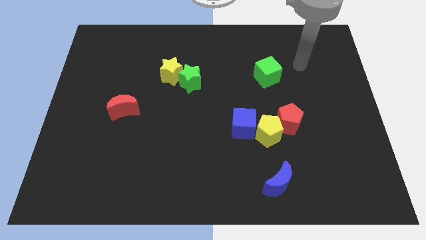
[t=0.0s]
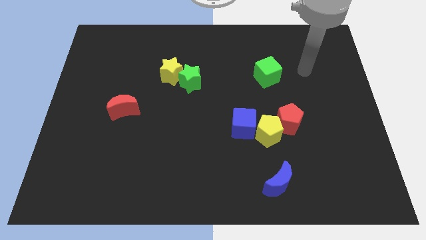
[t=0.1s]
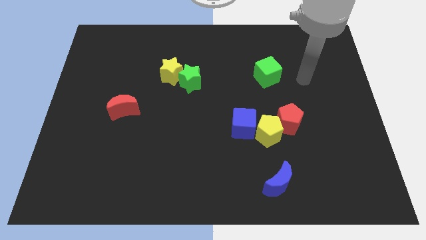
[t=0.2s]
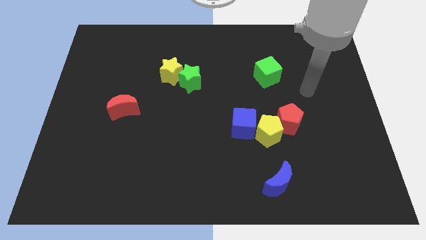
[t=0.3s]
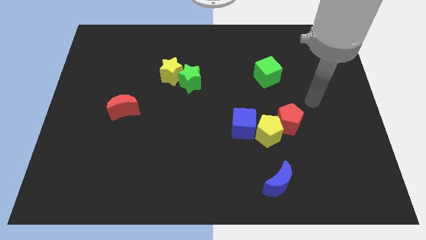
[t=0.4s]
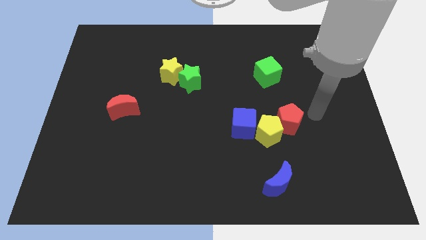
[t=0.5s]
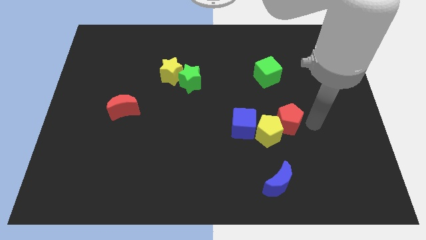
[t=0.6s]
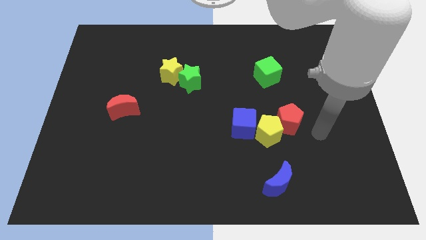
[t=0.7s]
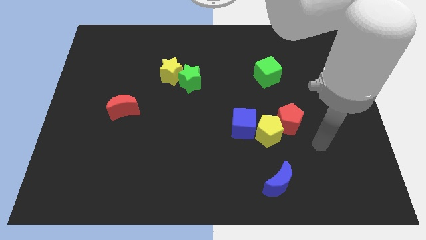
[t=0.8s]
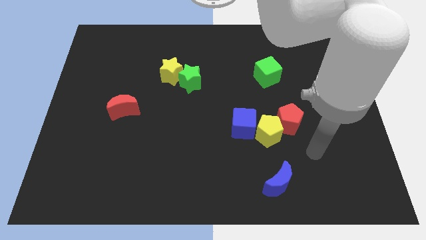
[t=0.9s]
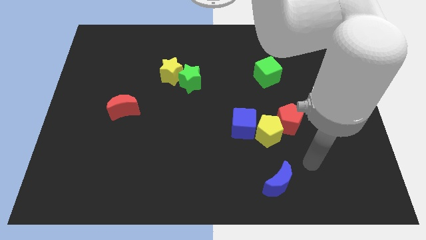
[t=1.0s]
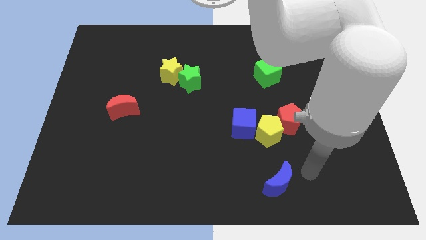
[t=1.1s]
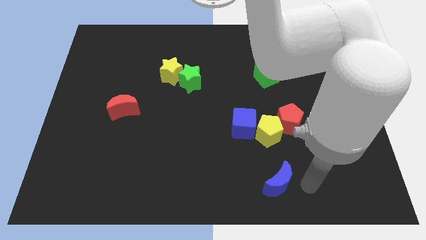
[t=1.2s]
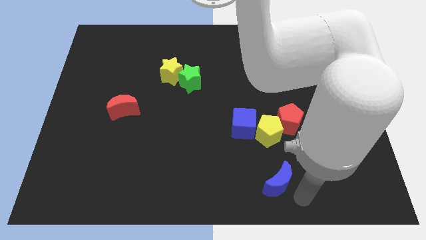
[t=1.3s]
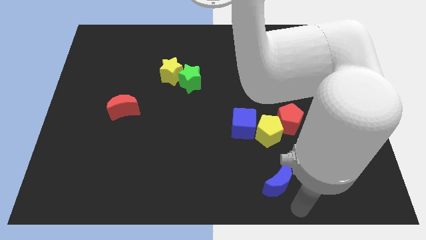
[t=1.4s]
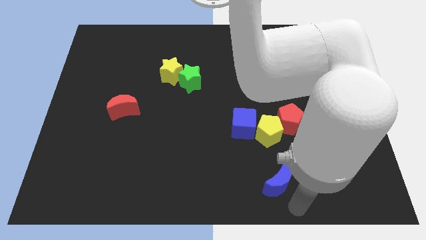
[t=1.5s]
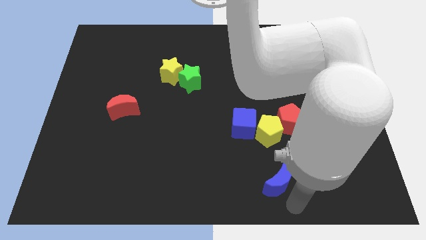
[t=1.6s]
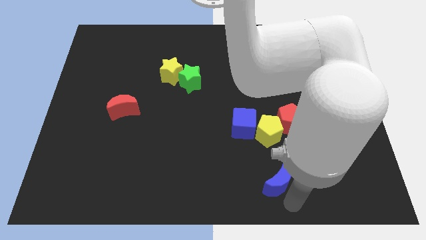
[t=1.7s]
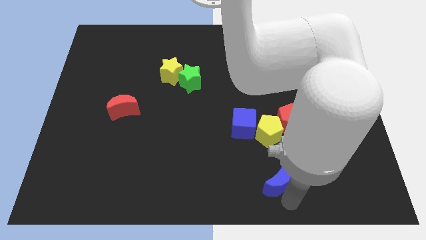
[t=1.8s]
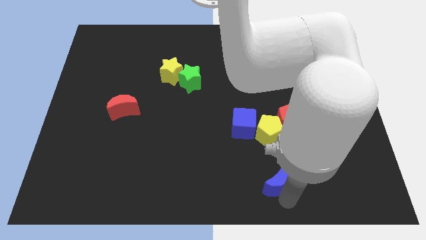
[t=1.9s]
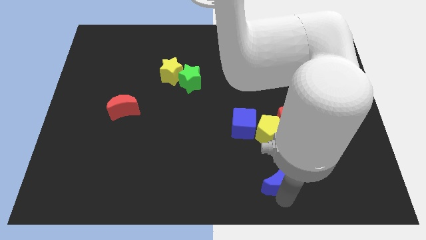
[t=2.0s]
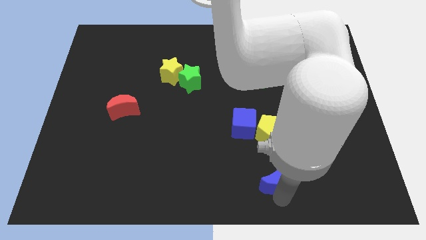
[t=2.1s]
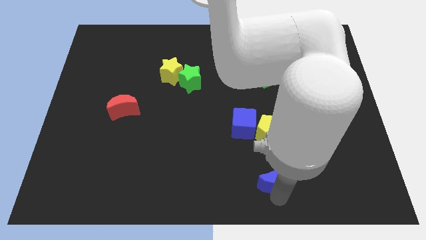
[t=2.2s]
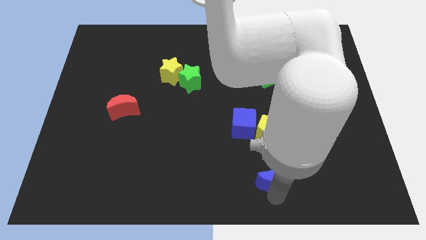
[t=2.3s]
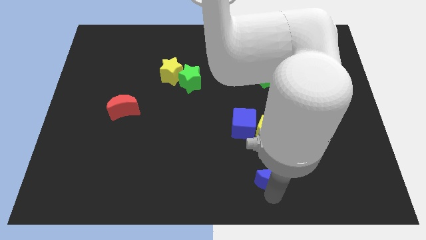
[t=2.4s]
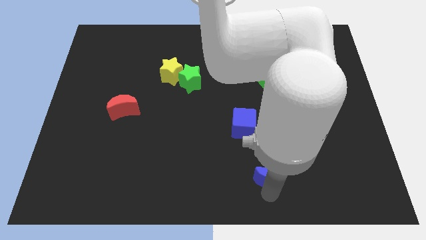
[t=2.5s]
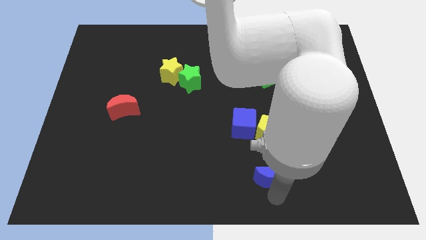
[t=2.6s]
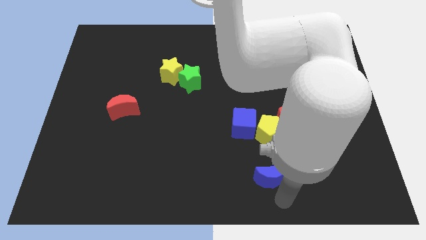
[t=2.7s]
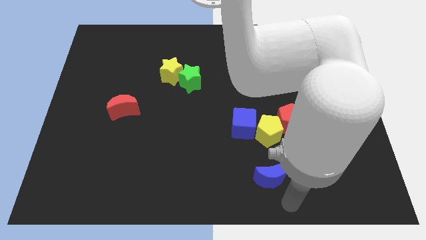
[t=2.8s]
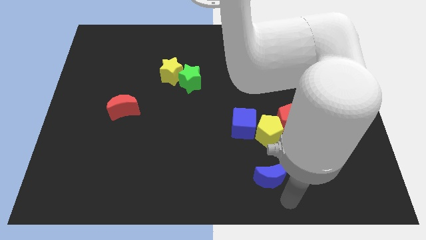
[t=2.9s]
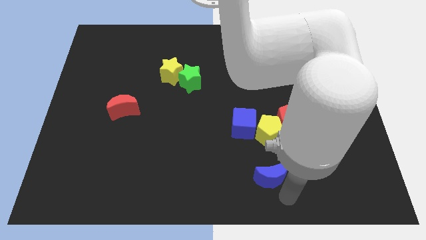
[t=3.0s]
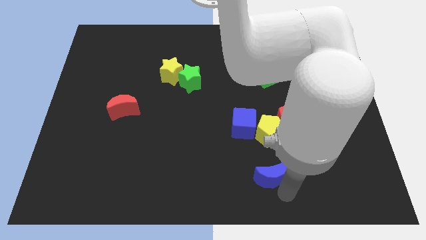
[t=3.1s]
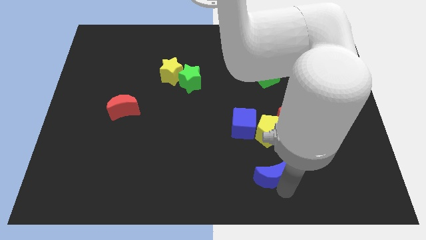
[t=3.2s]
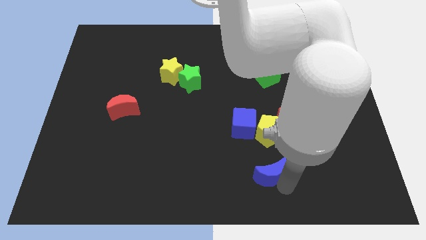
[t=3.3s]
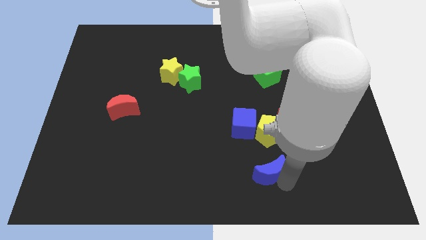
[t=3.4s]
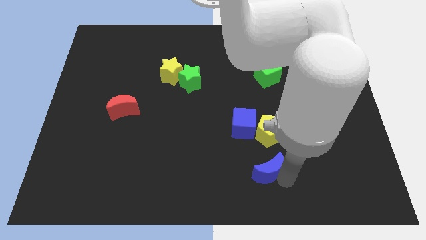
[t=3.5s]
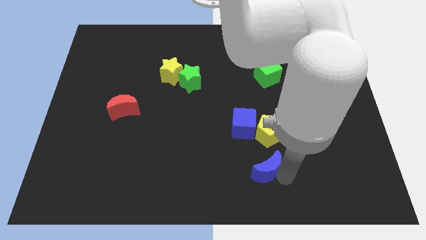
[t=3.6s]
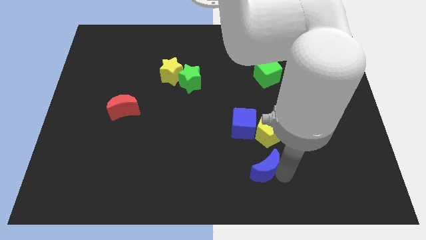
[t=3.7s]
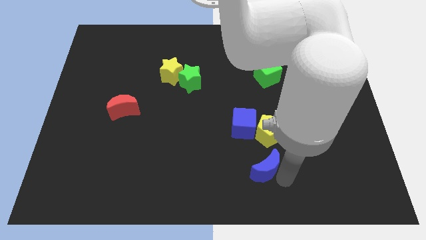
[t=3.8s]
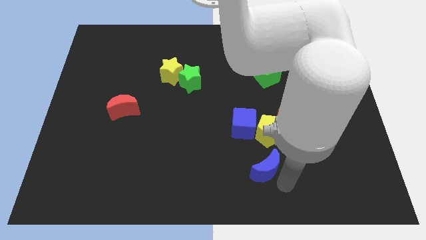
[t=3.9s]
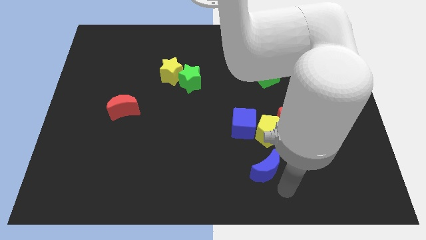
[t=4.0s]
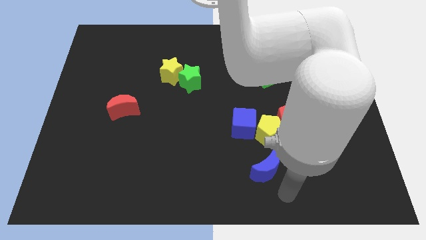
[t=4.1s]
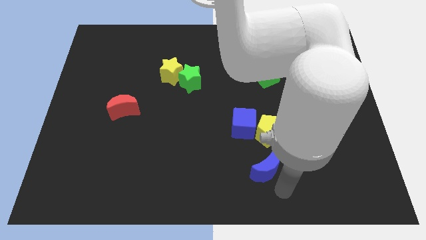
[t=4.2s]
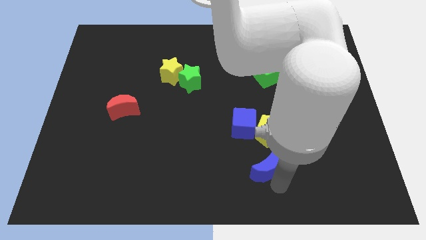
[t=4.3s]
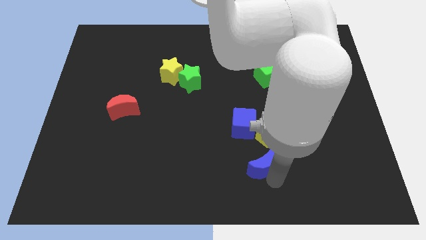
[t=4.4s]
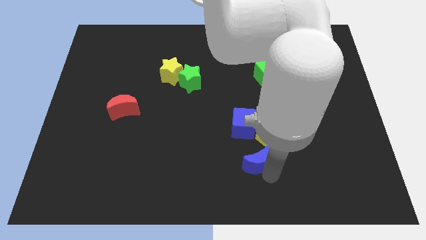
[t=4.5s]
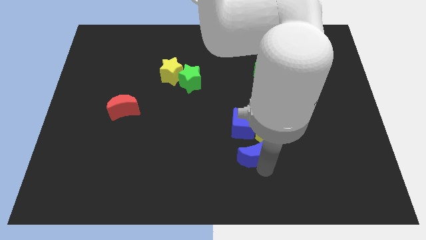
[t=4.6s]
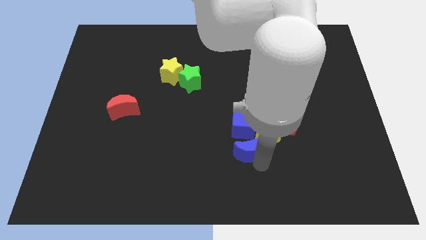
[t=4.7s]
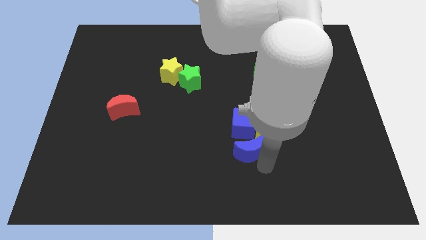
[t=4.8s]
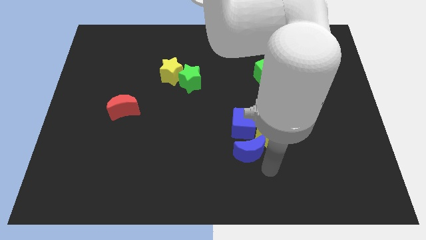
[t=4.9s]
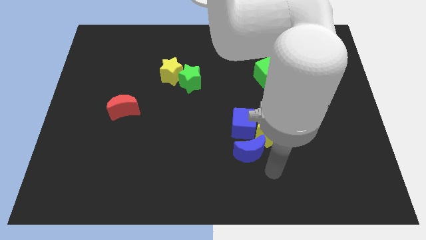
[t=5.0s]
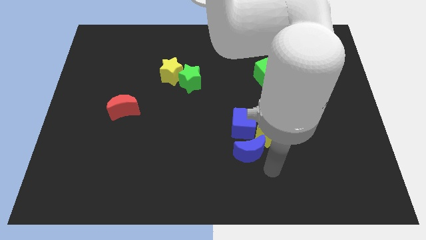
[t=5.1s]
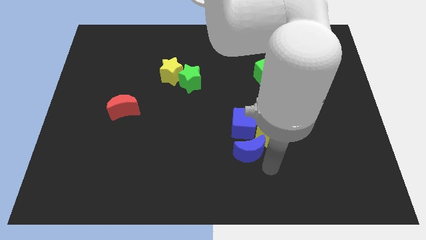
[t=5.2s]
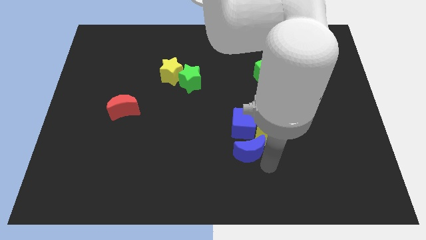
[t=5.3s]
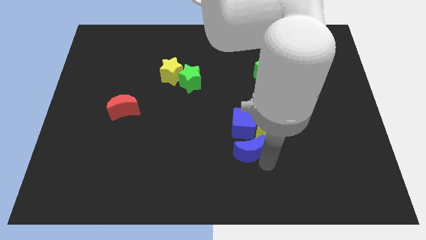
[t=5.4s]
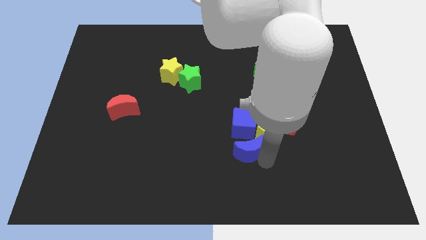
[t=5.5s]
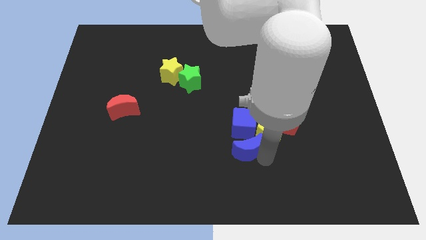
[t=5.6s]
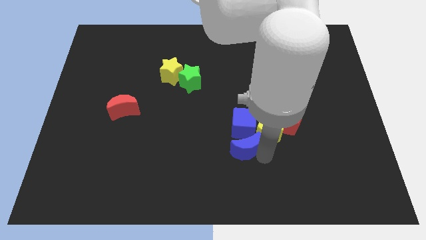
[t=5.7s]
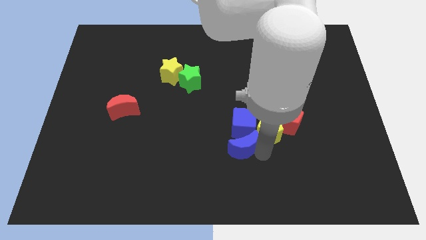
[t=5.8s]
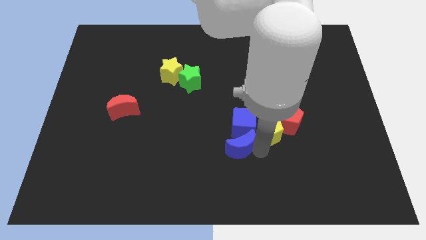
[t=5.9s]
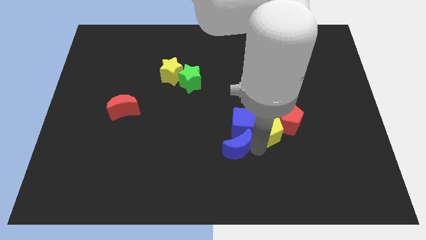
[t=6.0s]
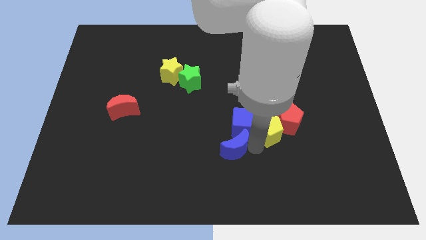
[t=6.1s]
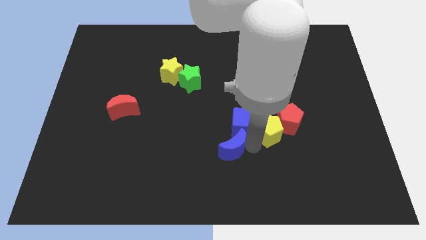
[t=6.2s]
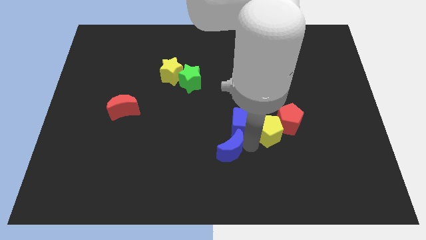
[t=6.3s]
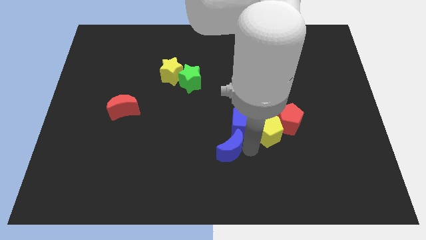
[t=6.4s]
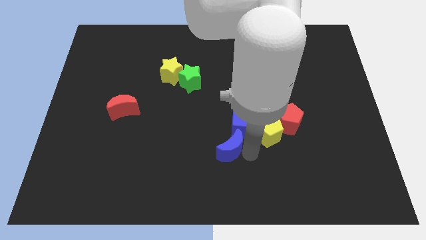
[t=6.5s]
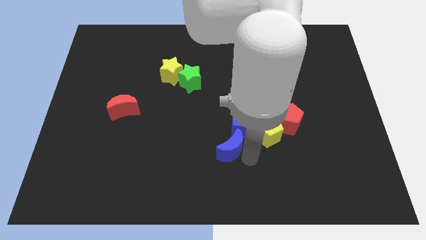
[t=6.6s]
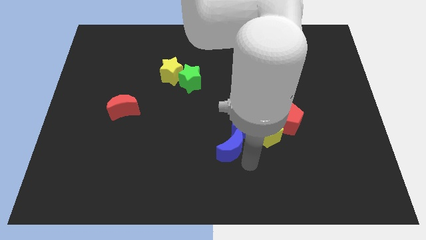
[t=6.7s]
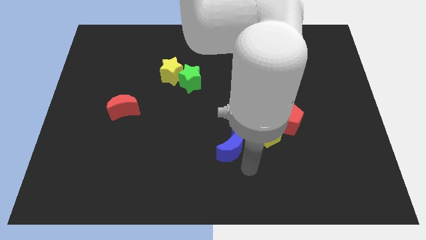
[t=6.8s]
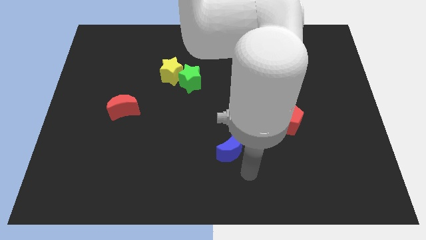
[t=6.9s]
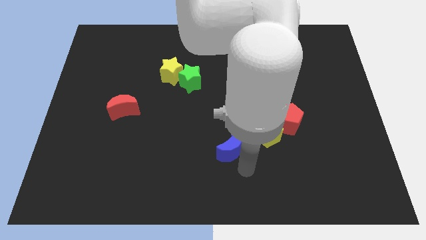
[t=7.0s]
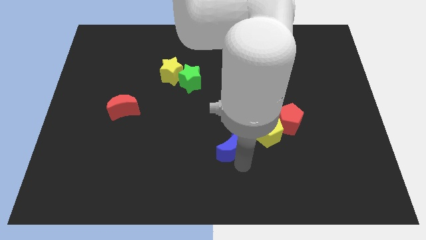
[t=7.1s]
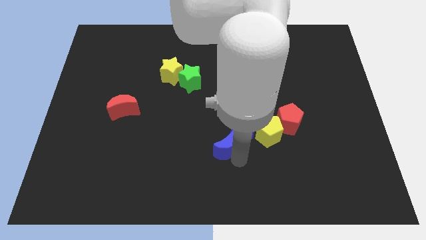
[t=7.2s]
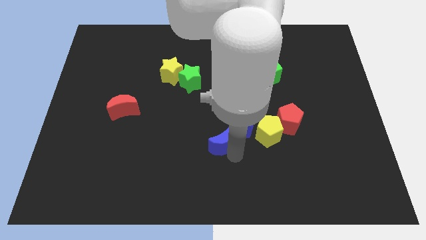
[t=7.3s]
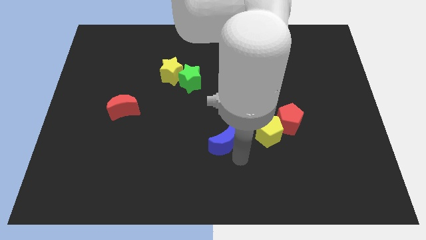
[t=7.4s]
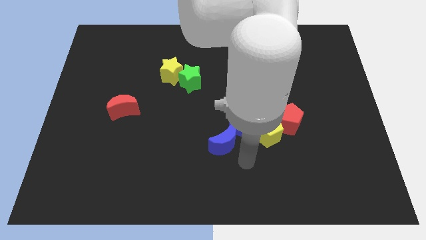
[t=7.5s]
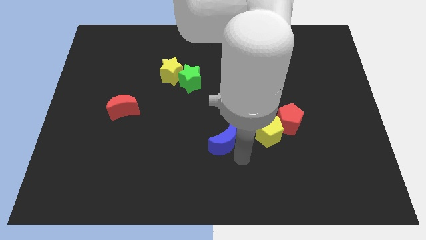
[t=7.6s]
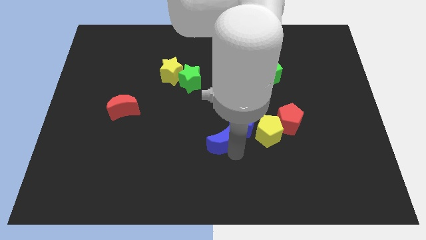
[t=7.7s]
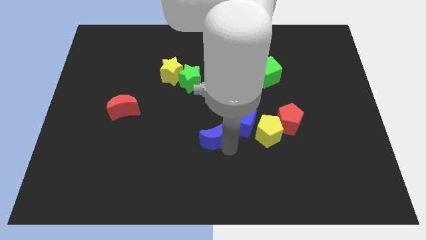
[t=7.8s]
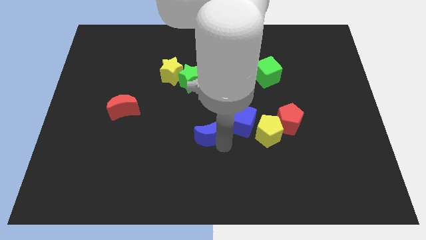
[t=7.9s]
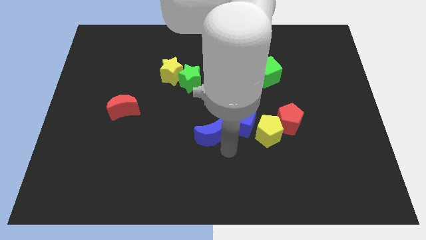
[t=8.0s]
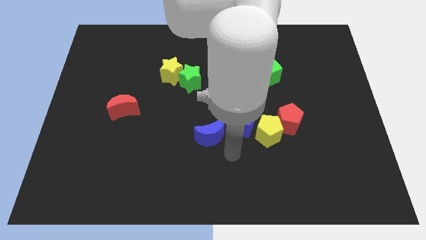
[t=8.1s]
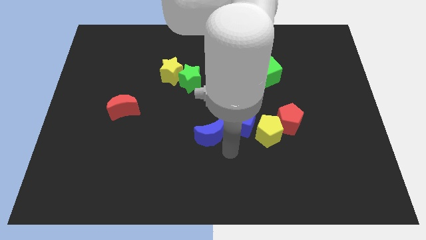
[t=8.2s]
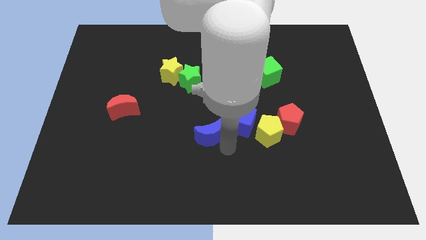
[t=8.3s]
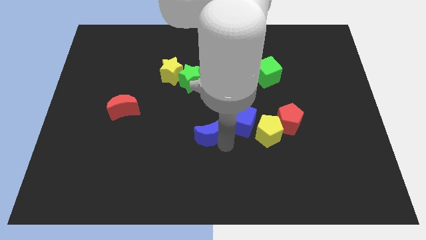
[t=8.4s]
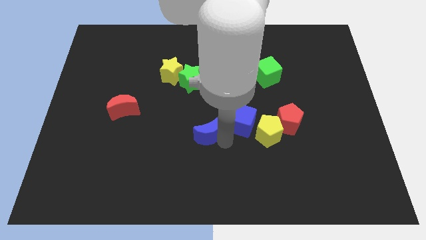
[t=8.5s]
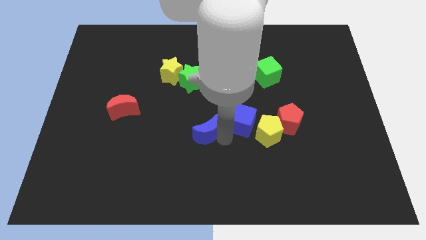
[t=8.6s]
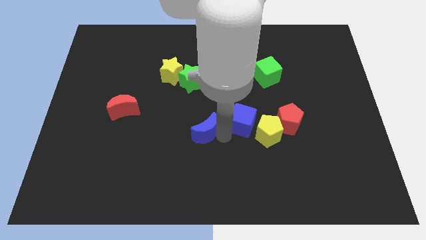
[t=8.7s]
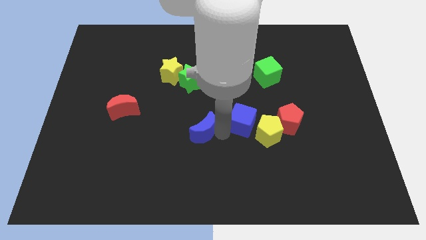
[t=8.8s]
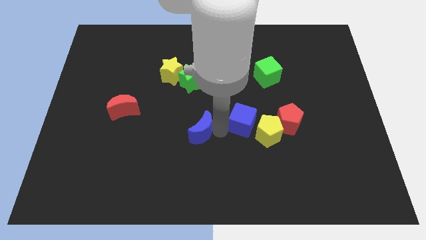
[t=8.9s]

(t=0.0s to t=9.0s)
move the blue moon diagonally upwards and left
